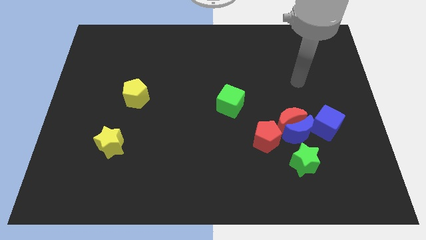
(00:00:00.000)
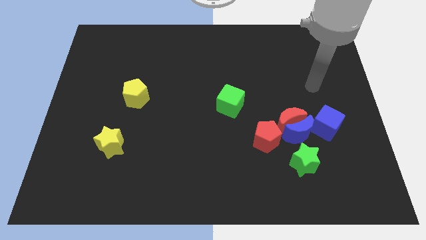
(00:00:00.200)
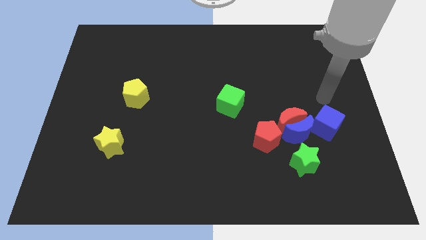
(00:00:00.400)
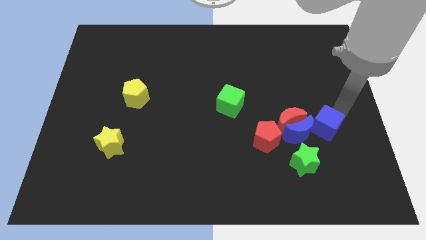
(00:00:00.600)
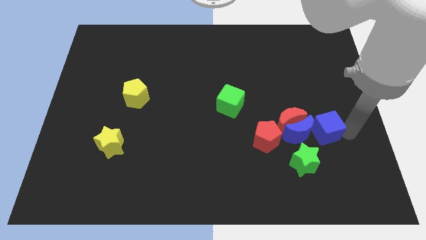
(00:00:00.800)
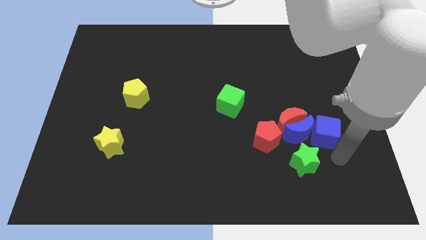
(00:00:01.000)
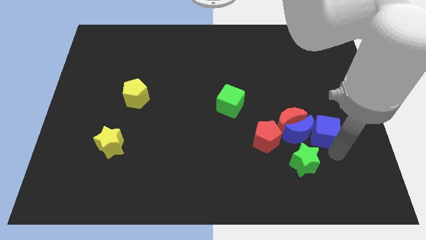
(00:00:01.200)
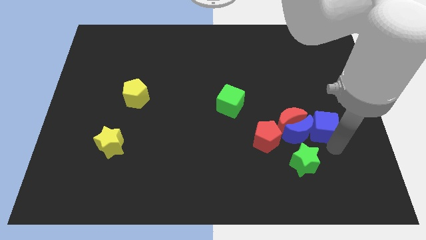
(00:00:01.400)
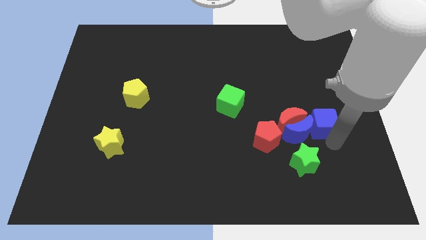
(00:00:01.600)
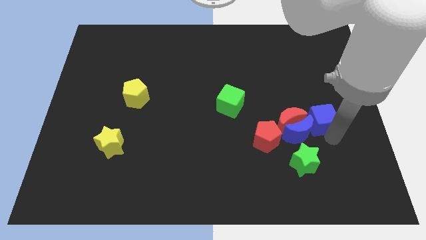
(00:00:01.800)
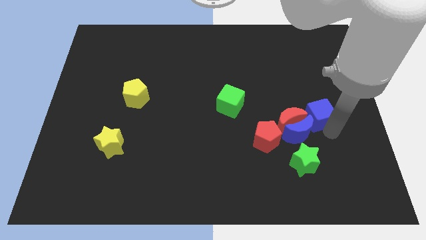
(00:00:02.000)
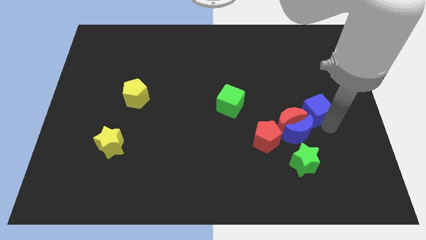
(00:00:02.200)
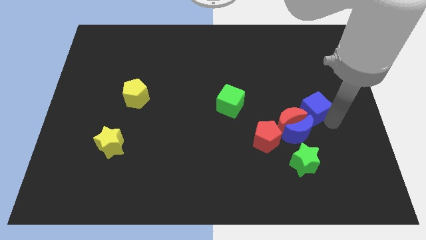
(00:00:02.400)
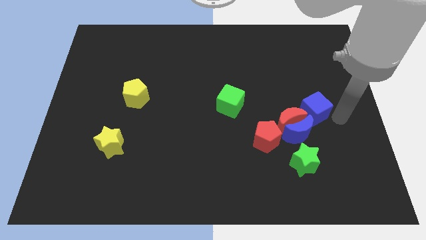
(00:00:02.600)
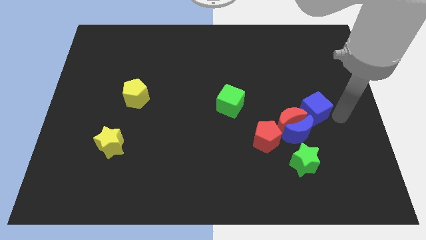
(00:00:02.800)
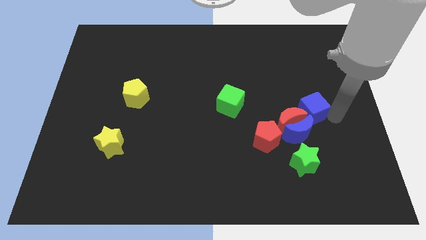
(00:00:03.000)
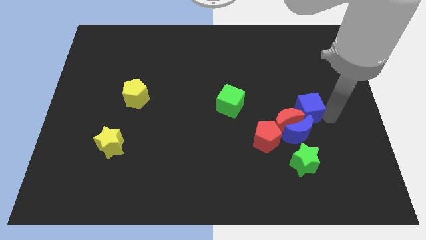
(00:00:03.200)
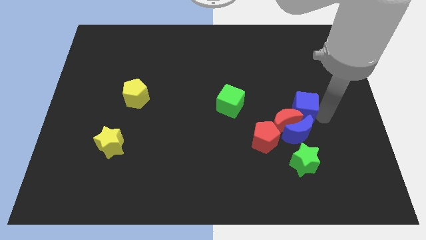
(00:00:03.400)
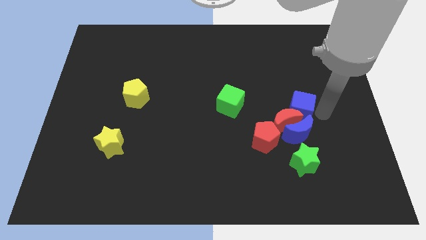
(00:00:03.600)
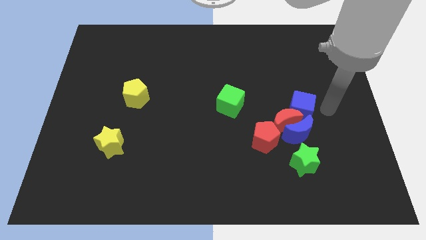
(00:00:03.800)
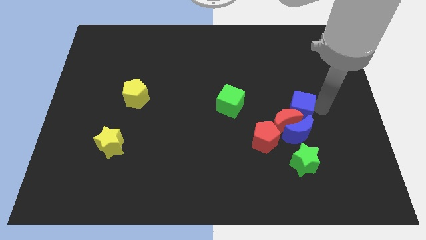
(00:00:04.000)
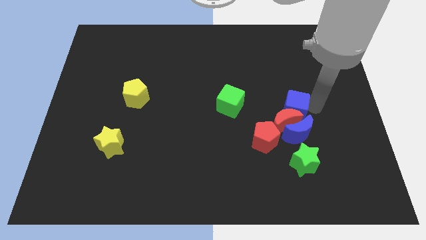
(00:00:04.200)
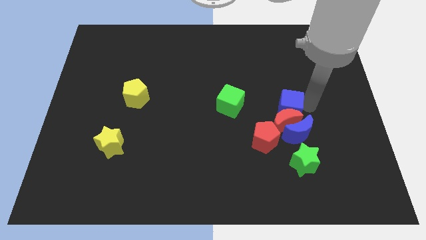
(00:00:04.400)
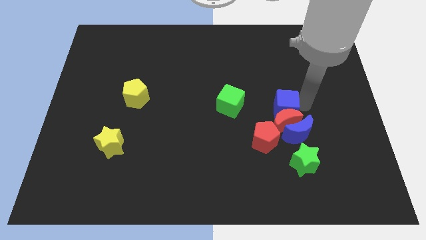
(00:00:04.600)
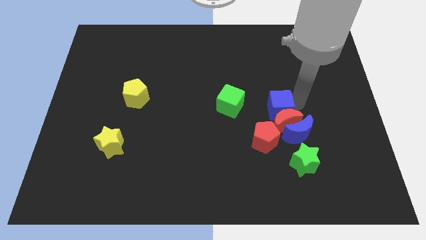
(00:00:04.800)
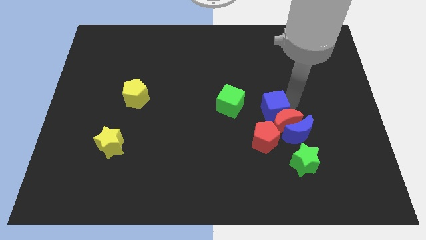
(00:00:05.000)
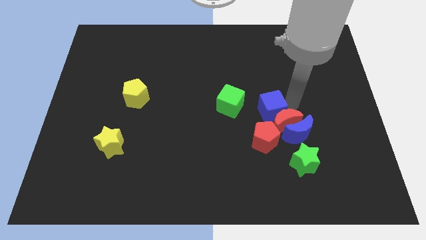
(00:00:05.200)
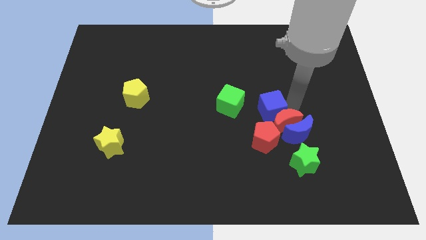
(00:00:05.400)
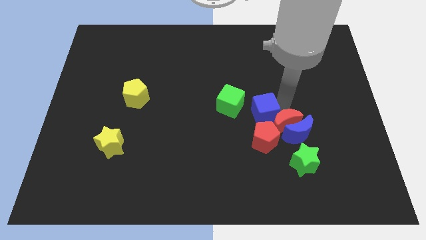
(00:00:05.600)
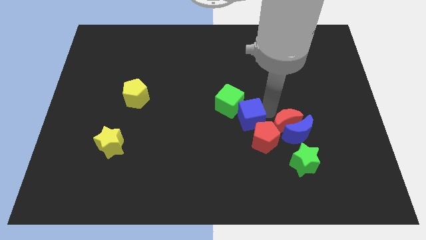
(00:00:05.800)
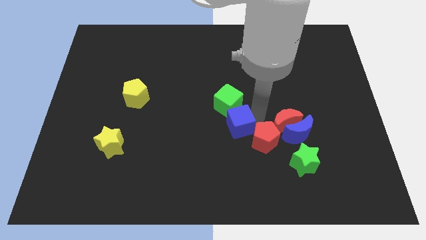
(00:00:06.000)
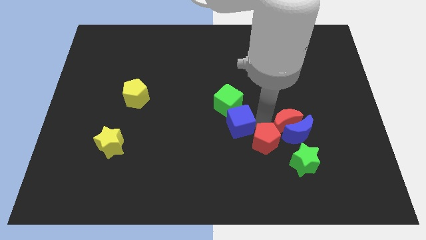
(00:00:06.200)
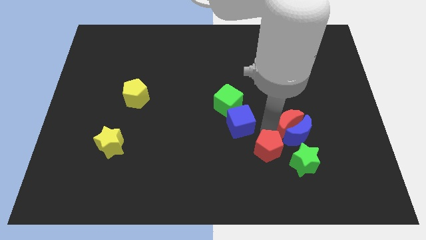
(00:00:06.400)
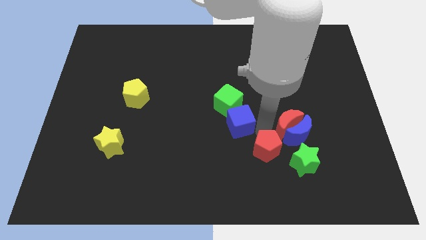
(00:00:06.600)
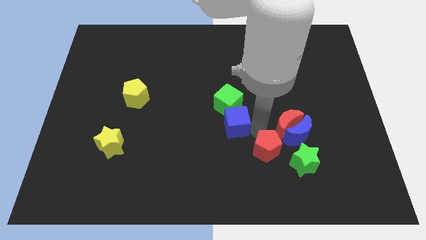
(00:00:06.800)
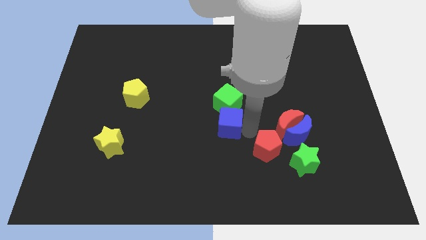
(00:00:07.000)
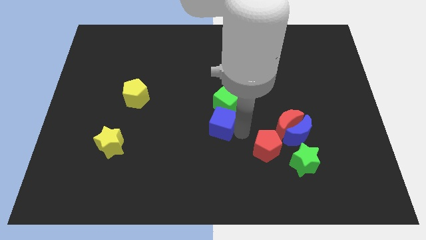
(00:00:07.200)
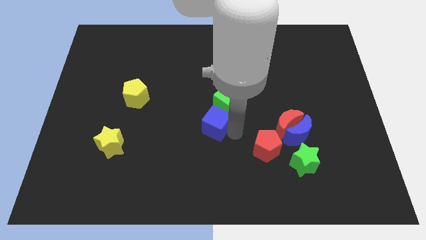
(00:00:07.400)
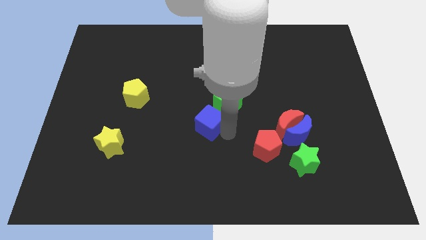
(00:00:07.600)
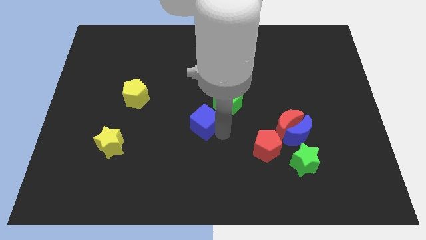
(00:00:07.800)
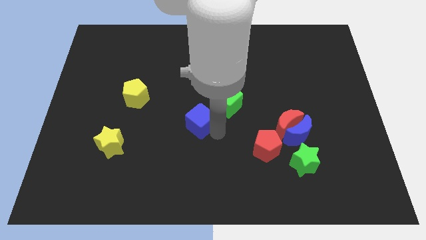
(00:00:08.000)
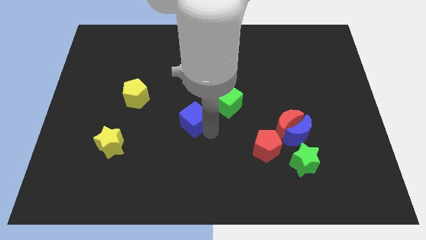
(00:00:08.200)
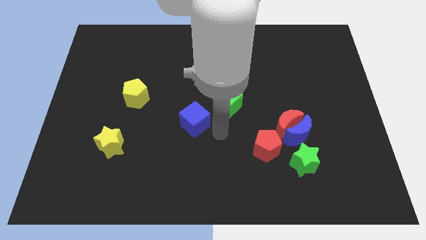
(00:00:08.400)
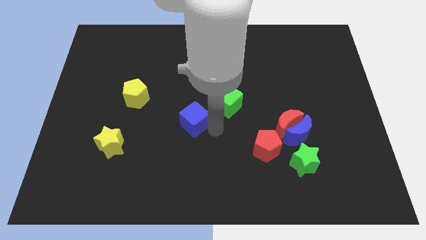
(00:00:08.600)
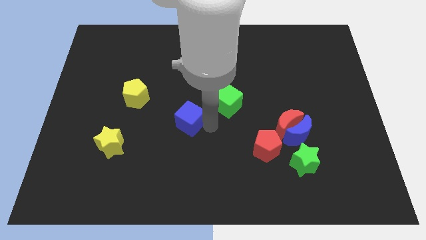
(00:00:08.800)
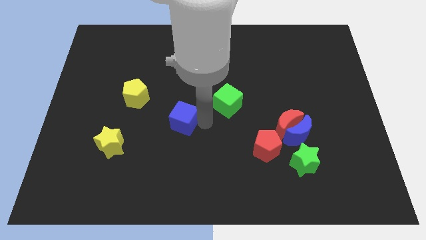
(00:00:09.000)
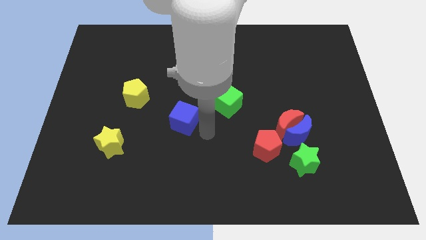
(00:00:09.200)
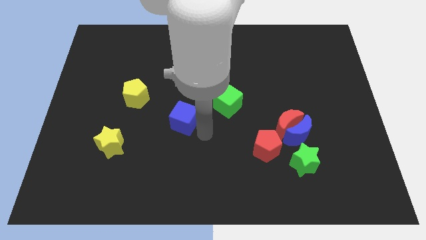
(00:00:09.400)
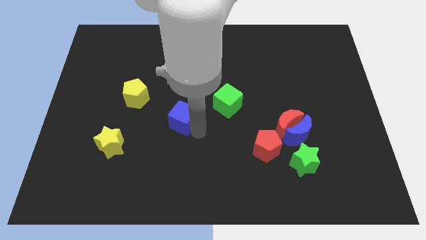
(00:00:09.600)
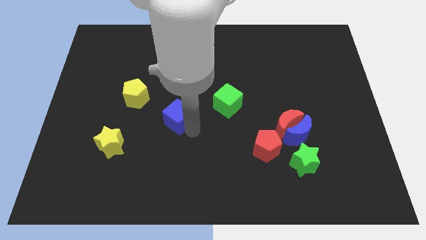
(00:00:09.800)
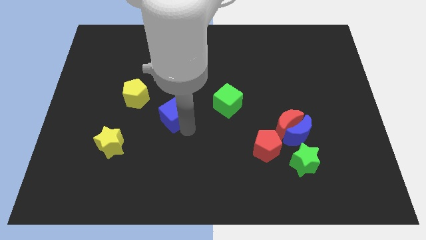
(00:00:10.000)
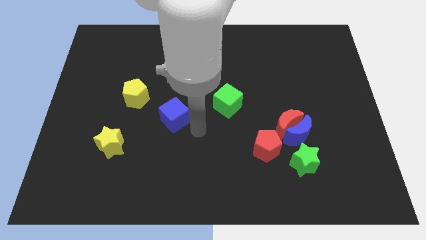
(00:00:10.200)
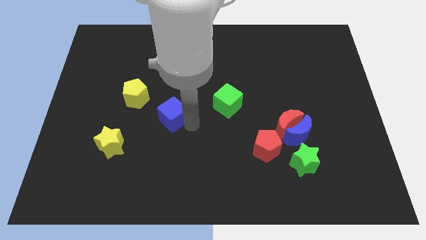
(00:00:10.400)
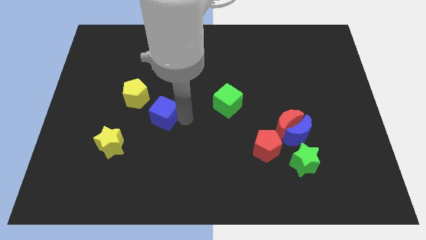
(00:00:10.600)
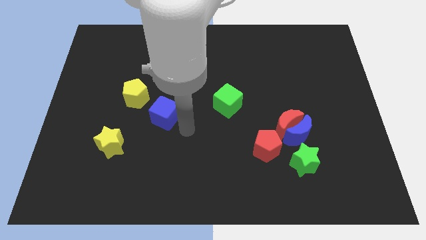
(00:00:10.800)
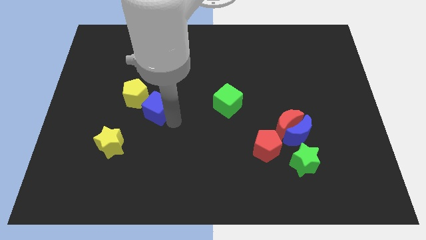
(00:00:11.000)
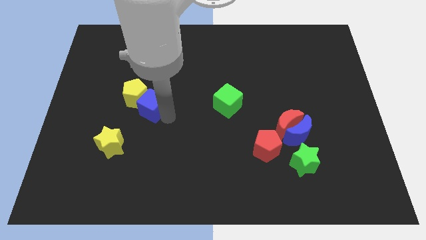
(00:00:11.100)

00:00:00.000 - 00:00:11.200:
move the blue cube towards the yellow pentagon

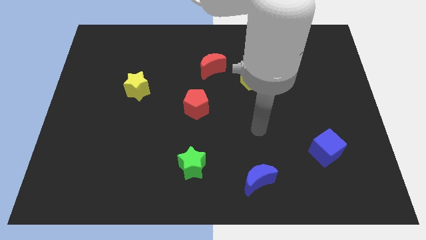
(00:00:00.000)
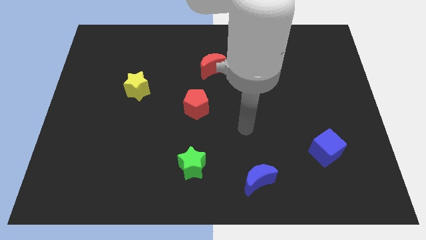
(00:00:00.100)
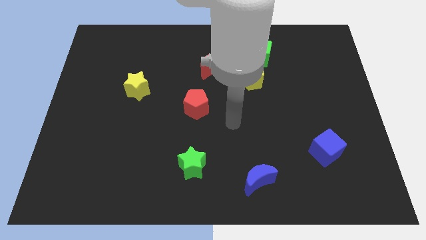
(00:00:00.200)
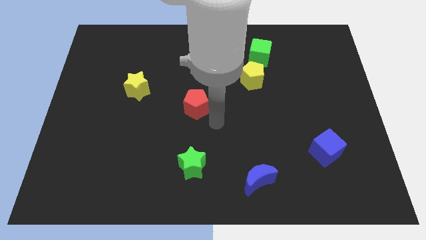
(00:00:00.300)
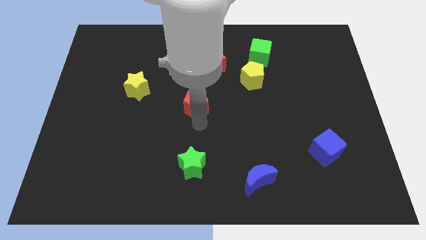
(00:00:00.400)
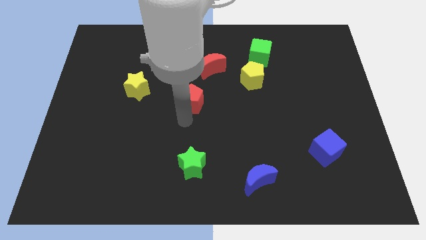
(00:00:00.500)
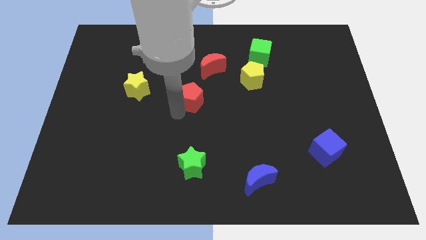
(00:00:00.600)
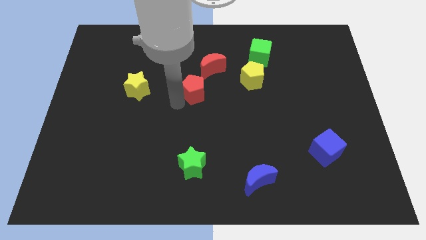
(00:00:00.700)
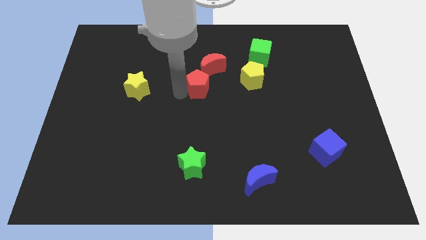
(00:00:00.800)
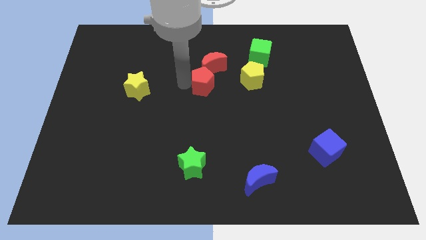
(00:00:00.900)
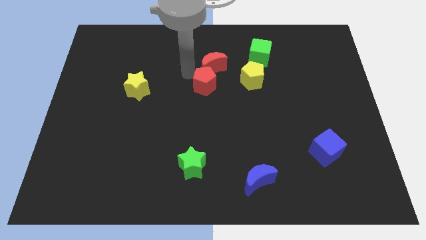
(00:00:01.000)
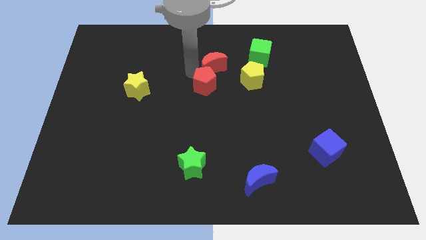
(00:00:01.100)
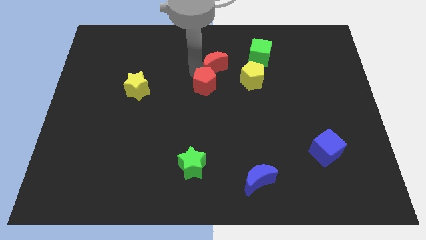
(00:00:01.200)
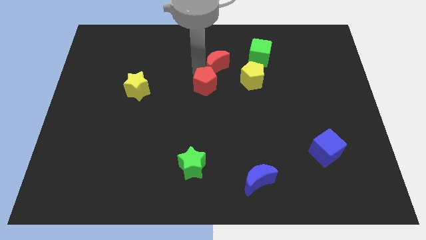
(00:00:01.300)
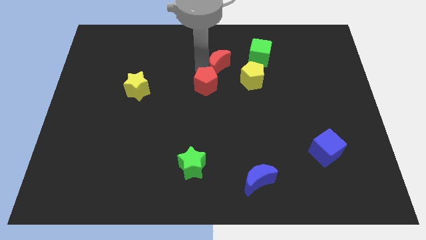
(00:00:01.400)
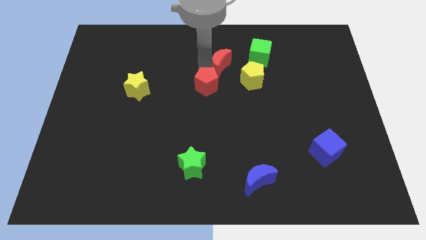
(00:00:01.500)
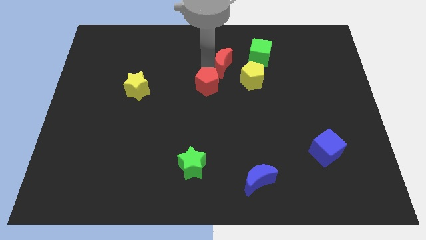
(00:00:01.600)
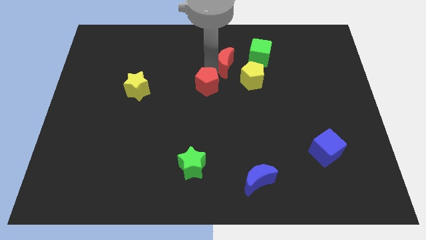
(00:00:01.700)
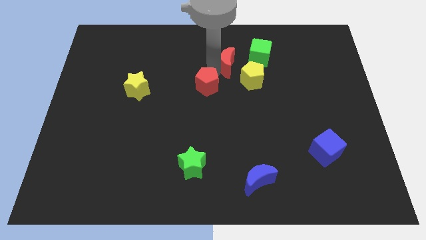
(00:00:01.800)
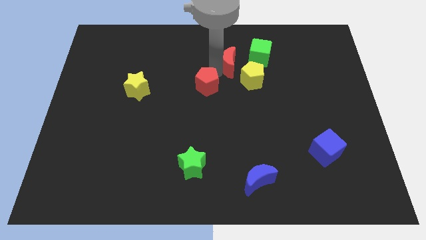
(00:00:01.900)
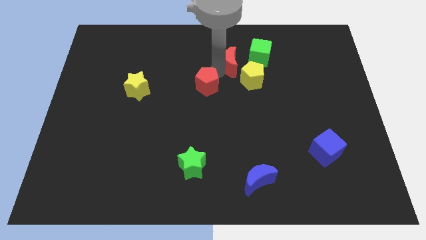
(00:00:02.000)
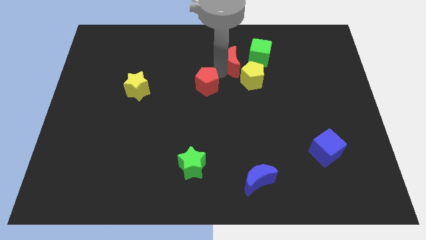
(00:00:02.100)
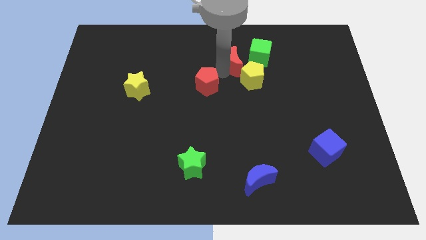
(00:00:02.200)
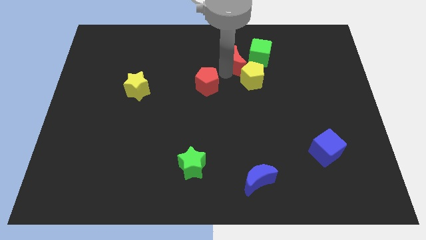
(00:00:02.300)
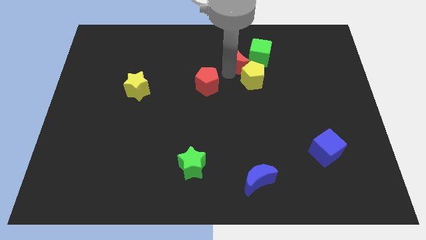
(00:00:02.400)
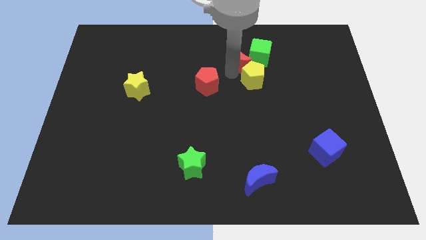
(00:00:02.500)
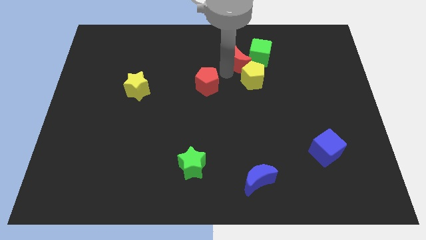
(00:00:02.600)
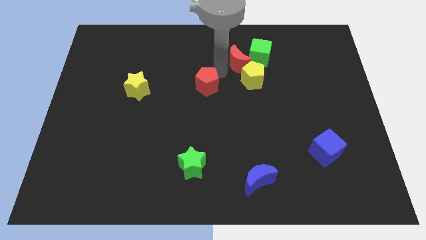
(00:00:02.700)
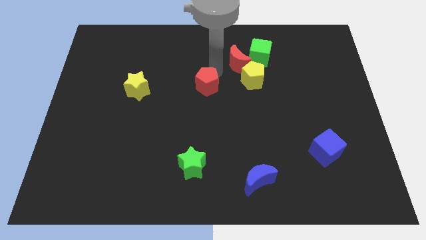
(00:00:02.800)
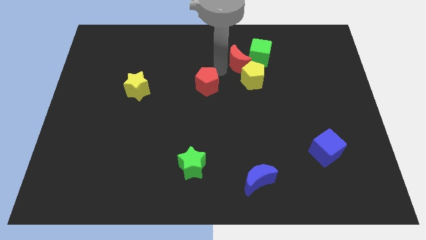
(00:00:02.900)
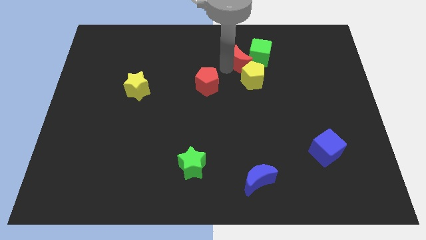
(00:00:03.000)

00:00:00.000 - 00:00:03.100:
slide the red moon to the green cube
